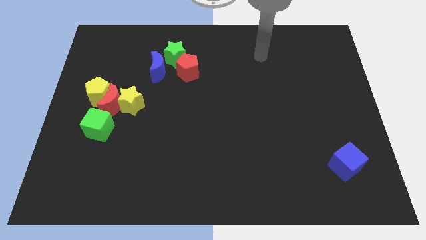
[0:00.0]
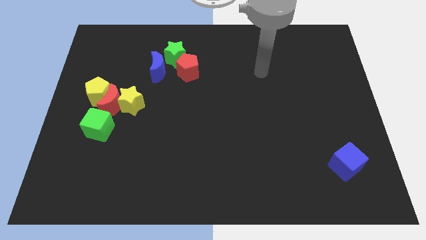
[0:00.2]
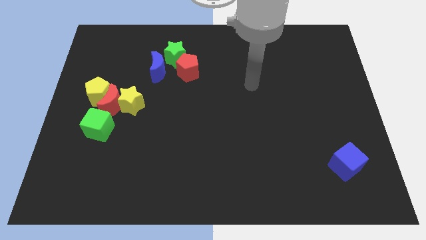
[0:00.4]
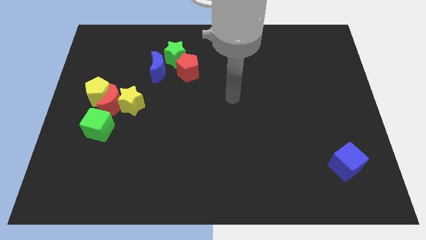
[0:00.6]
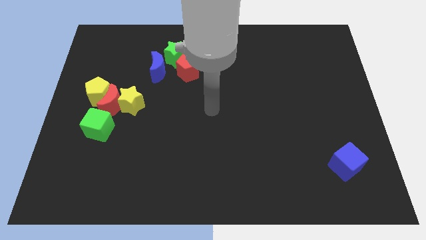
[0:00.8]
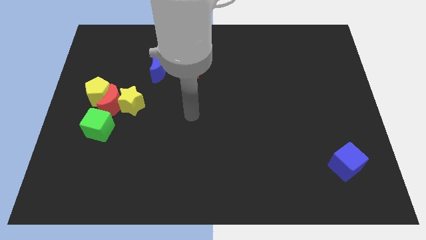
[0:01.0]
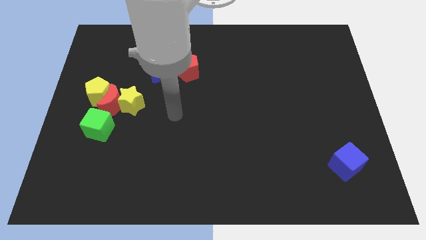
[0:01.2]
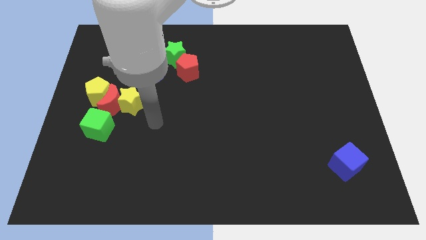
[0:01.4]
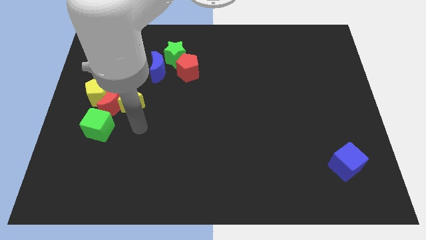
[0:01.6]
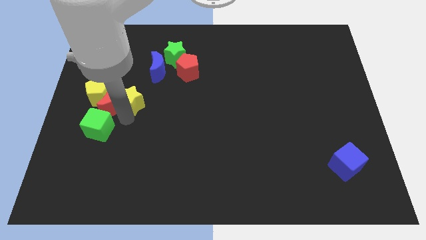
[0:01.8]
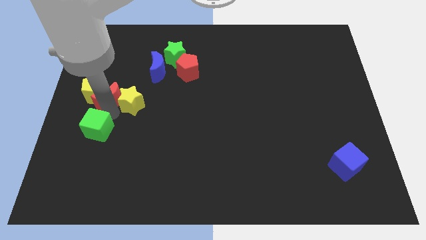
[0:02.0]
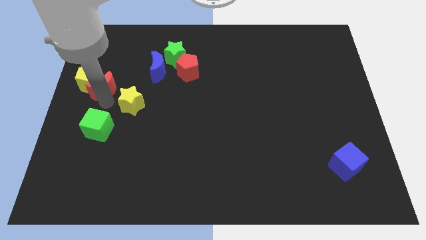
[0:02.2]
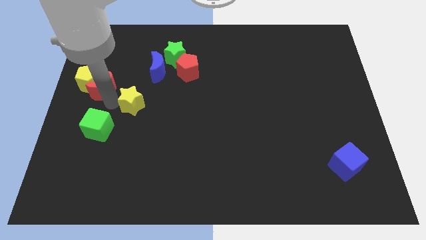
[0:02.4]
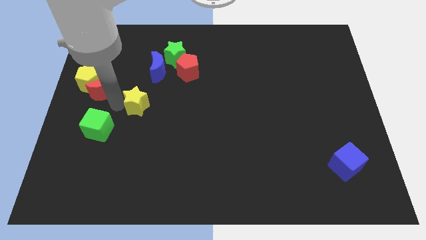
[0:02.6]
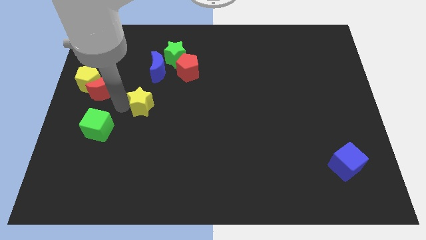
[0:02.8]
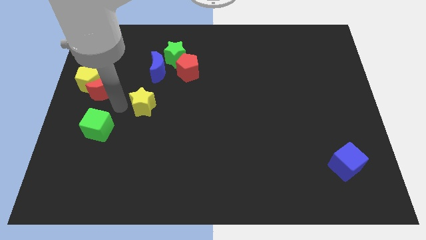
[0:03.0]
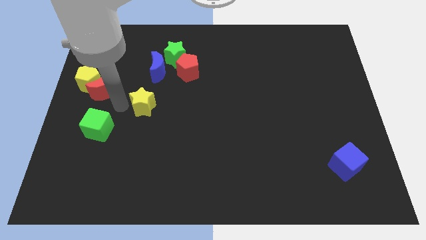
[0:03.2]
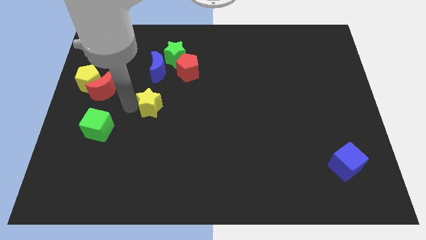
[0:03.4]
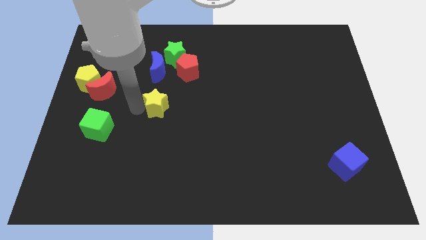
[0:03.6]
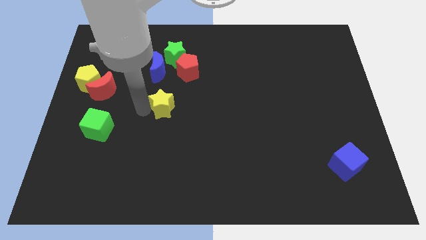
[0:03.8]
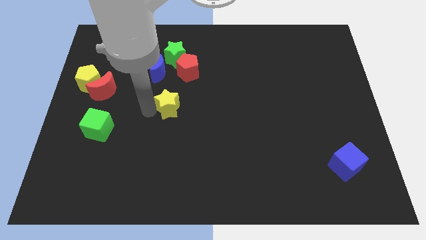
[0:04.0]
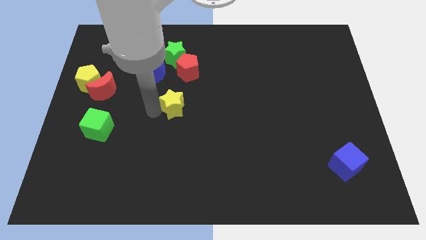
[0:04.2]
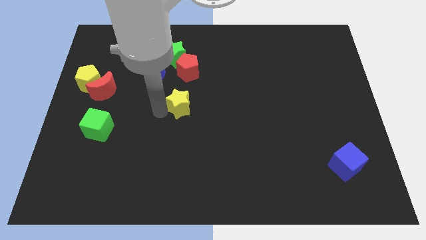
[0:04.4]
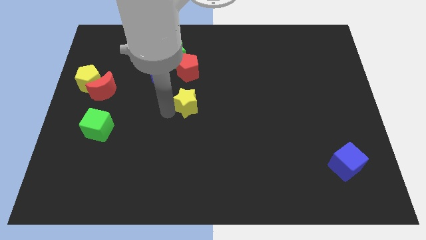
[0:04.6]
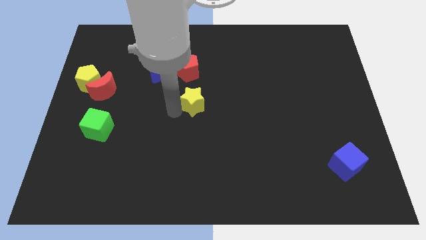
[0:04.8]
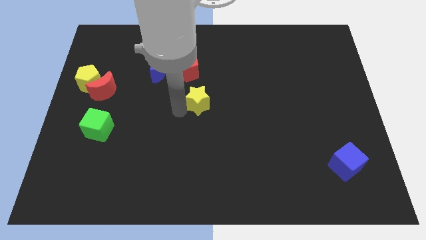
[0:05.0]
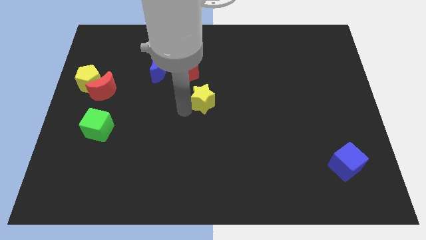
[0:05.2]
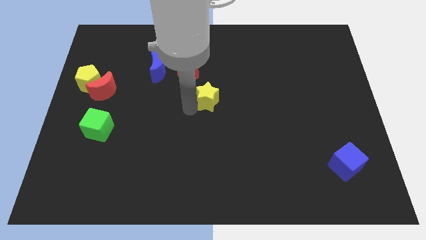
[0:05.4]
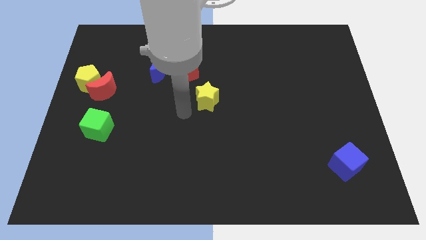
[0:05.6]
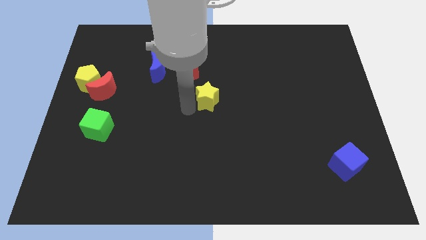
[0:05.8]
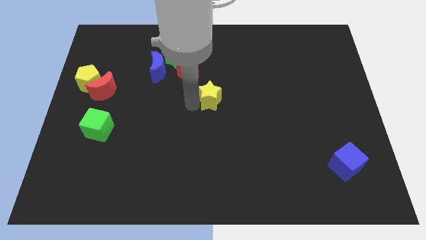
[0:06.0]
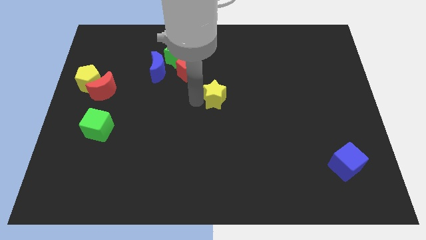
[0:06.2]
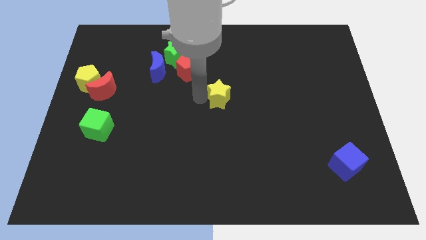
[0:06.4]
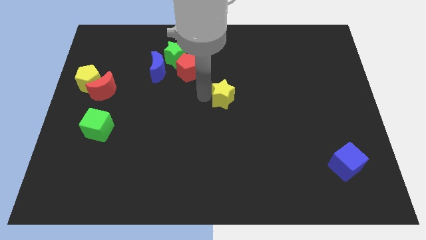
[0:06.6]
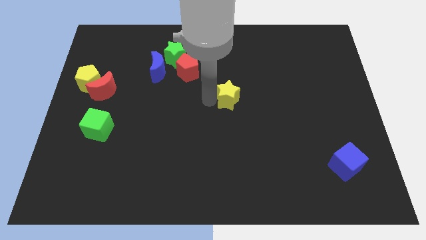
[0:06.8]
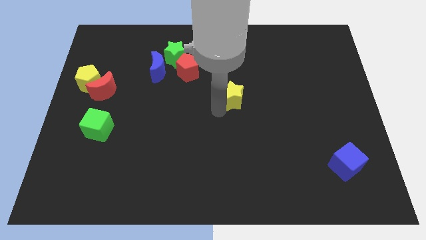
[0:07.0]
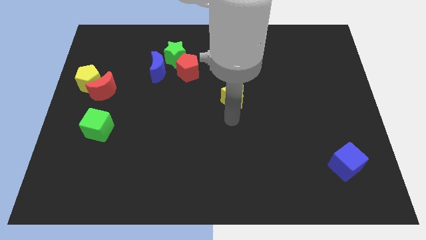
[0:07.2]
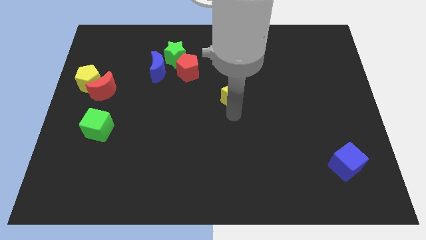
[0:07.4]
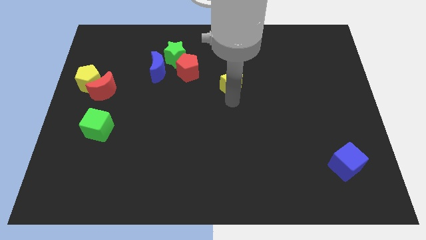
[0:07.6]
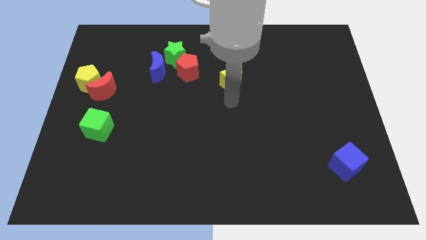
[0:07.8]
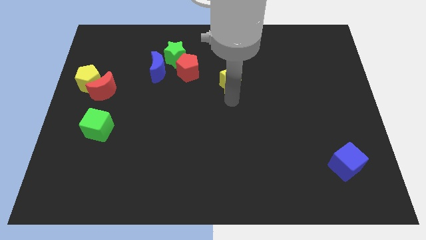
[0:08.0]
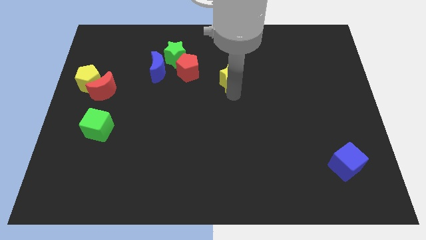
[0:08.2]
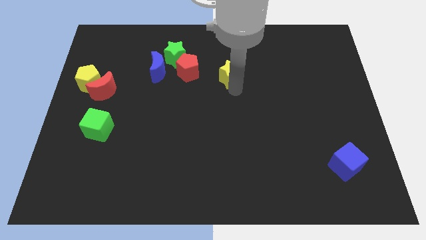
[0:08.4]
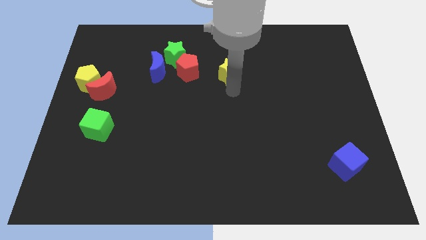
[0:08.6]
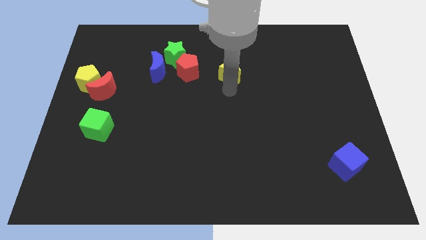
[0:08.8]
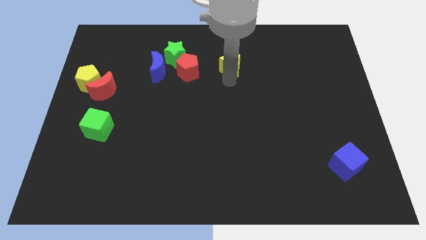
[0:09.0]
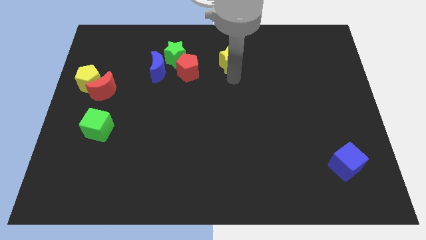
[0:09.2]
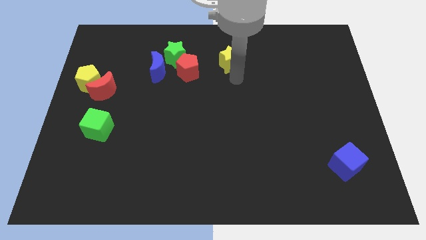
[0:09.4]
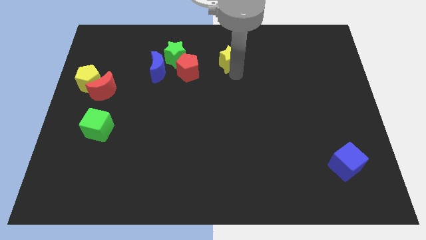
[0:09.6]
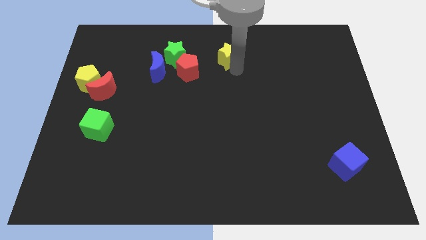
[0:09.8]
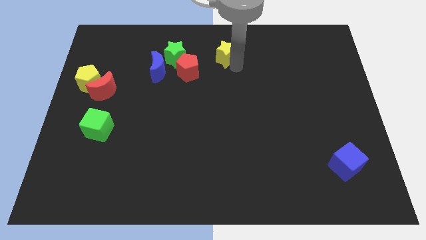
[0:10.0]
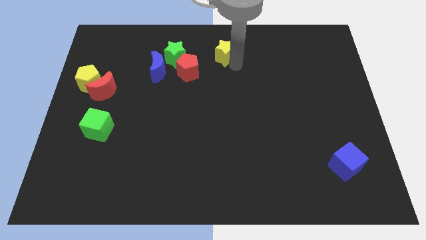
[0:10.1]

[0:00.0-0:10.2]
put the yellow star to the towards your base

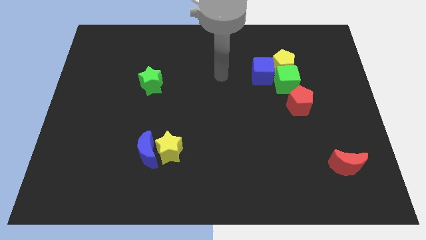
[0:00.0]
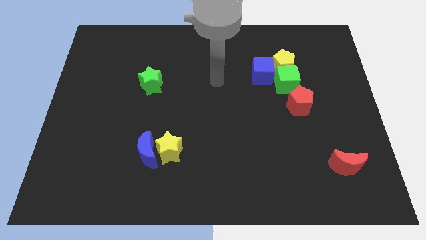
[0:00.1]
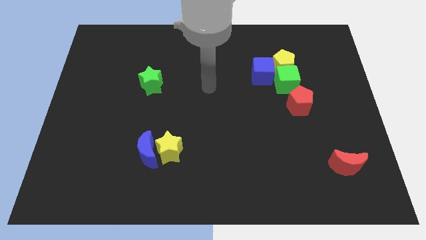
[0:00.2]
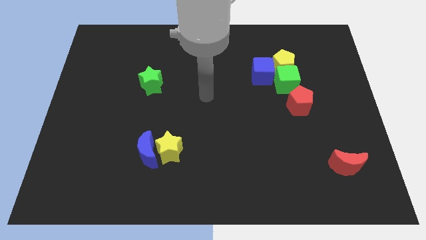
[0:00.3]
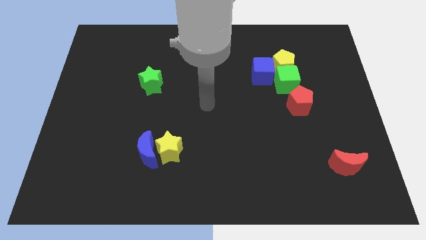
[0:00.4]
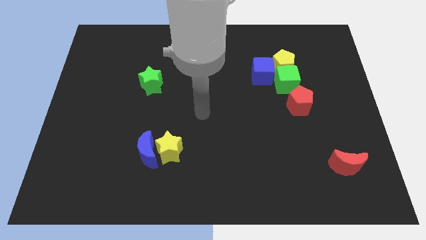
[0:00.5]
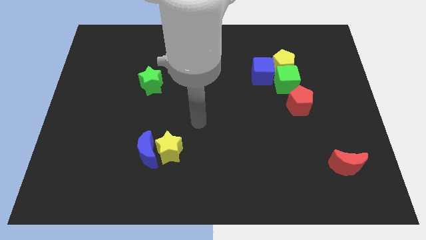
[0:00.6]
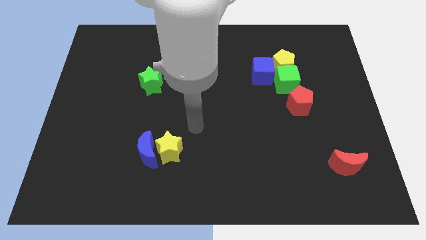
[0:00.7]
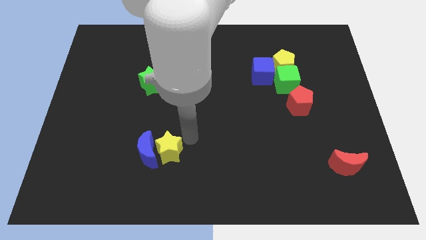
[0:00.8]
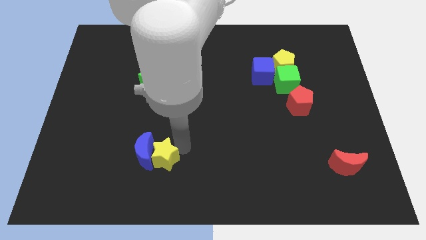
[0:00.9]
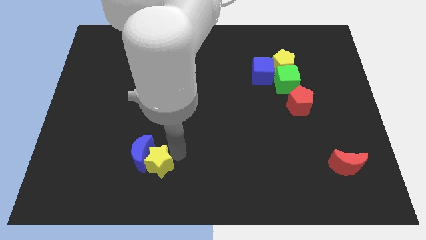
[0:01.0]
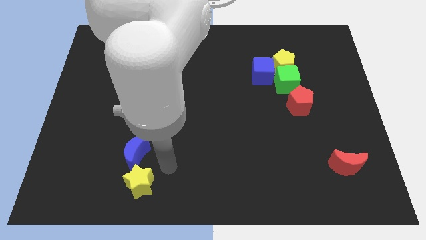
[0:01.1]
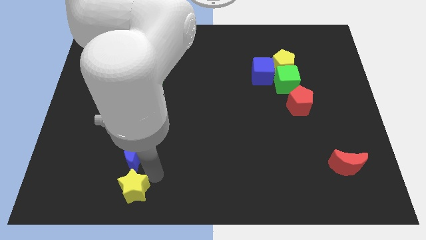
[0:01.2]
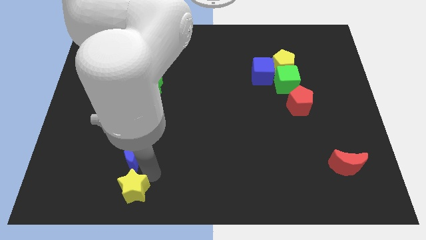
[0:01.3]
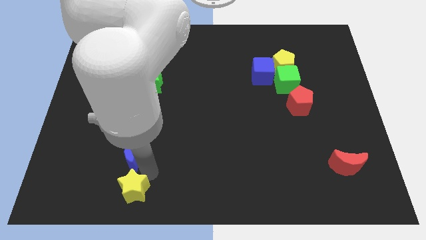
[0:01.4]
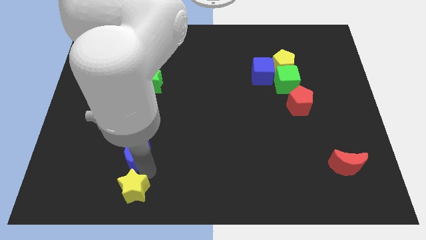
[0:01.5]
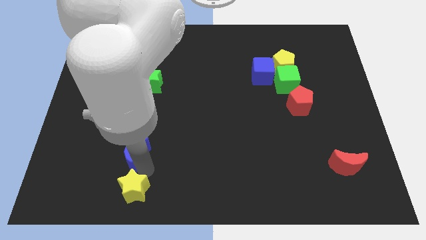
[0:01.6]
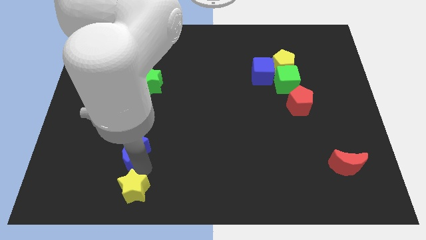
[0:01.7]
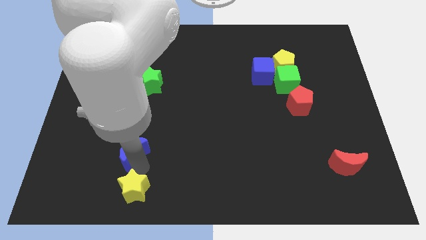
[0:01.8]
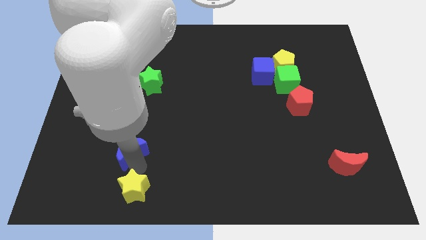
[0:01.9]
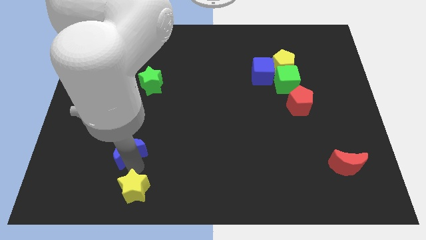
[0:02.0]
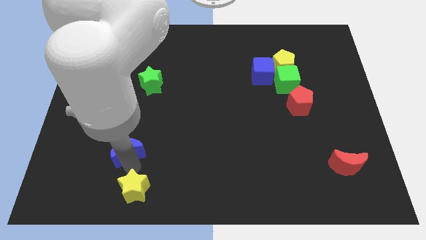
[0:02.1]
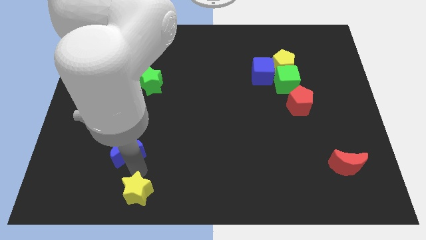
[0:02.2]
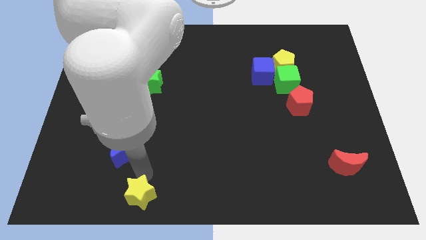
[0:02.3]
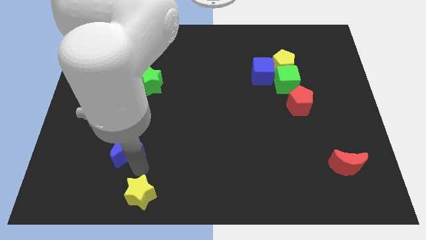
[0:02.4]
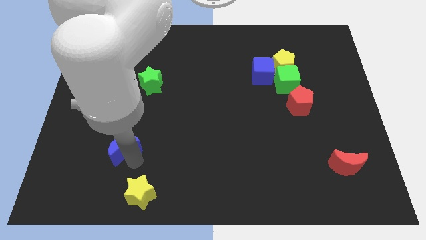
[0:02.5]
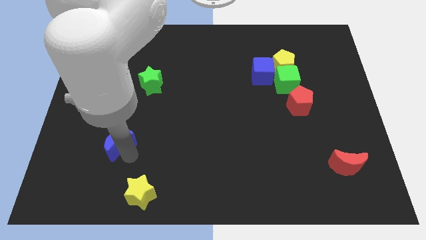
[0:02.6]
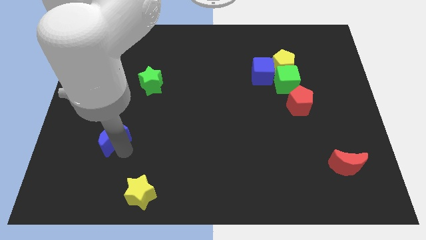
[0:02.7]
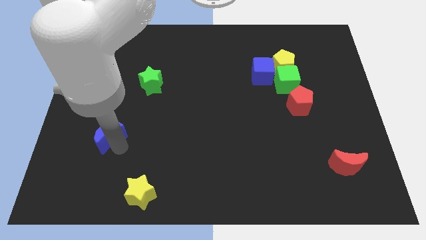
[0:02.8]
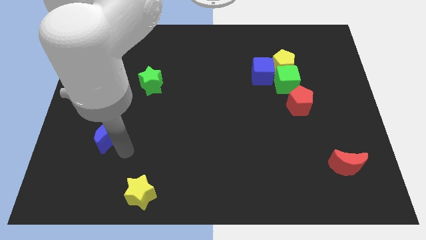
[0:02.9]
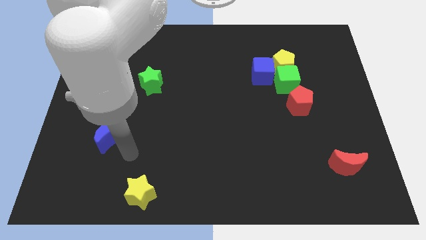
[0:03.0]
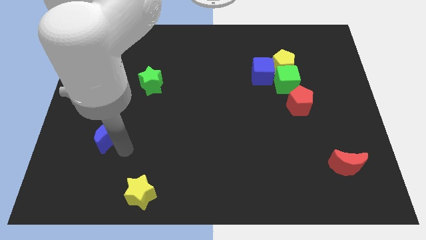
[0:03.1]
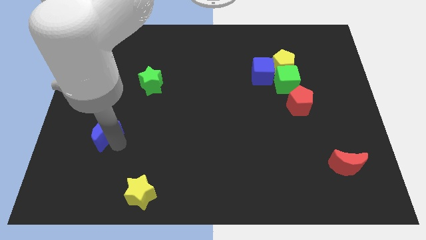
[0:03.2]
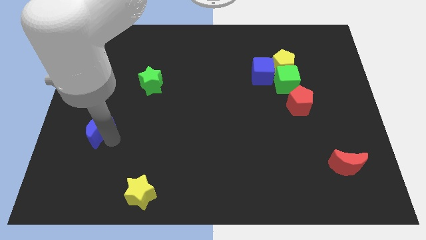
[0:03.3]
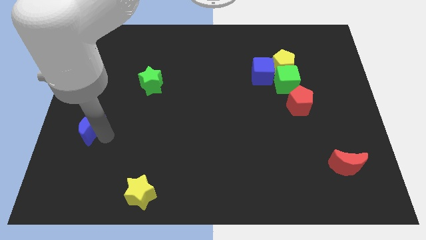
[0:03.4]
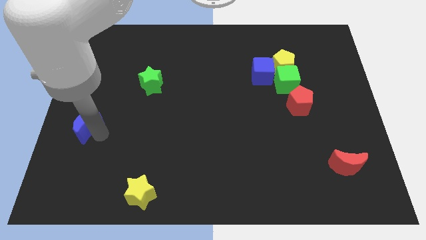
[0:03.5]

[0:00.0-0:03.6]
move the blue moon to the center left
